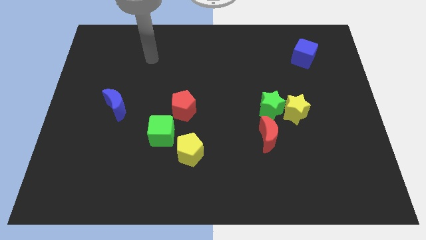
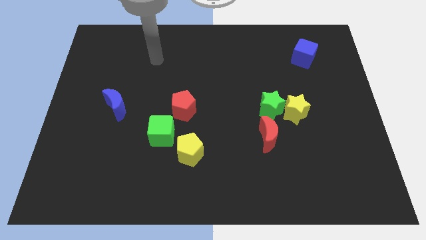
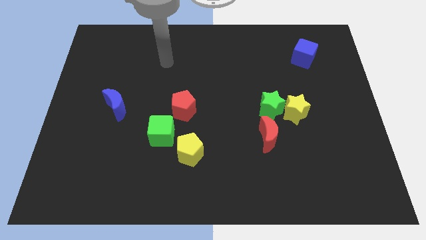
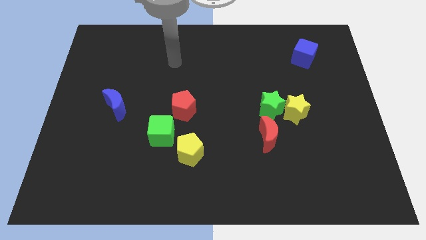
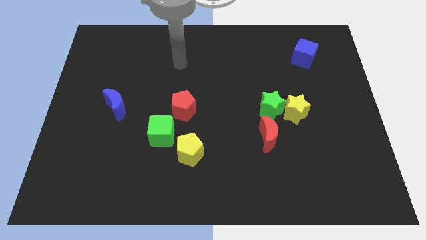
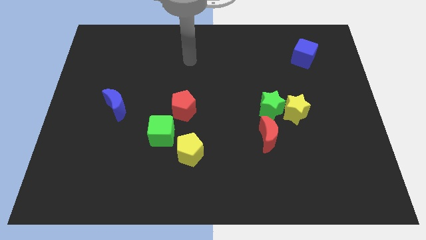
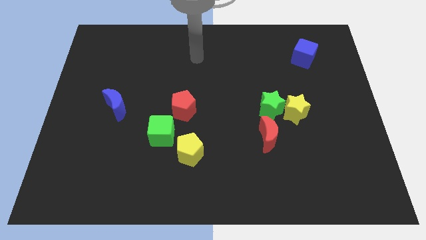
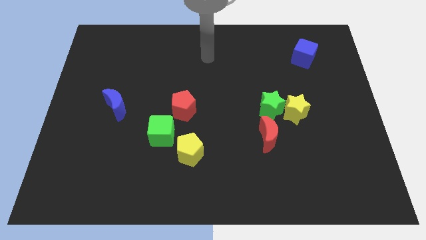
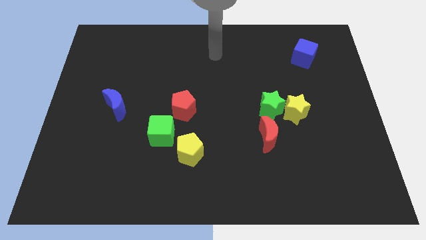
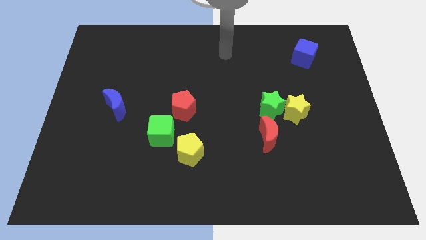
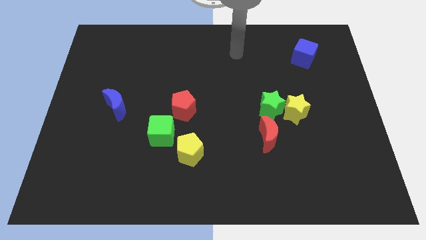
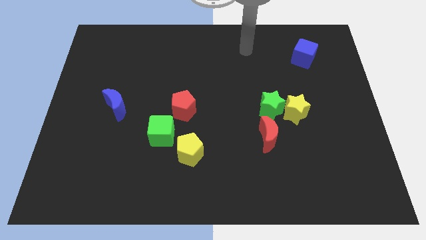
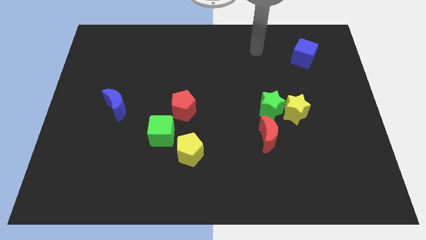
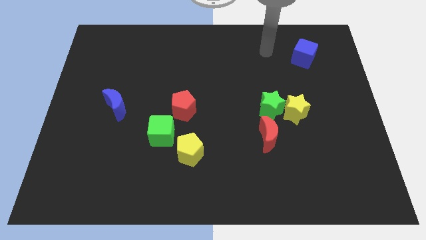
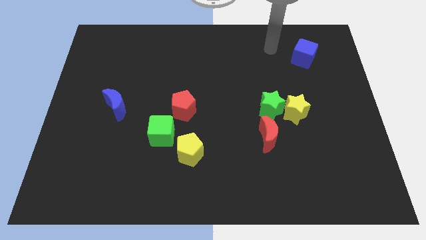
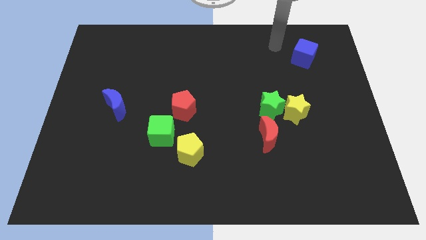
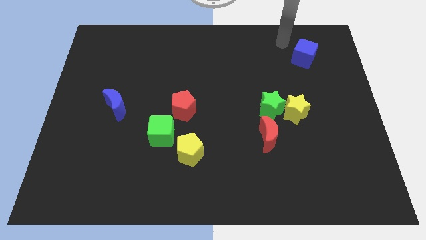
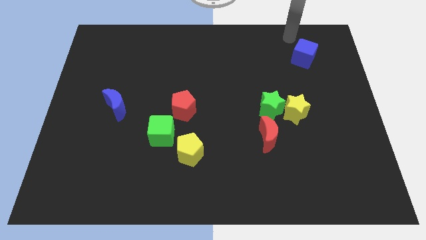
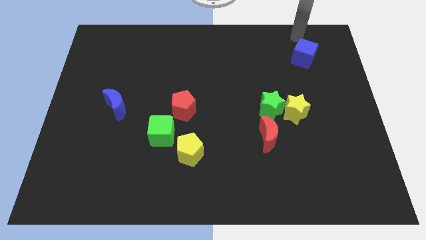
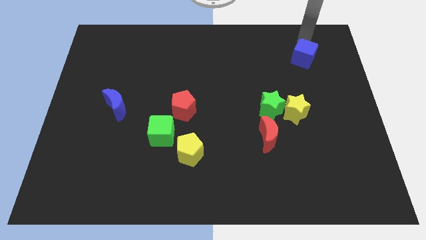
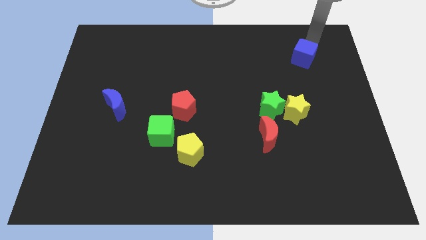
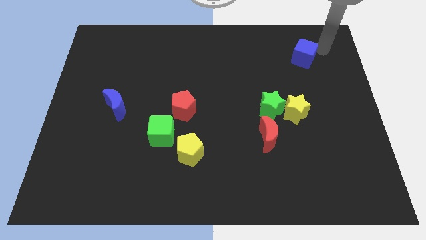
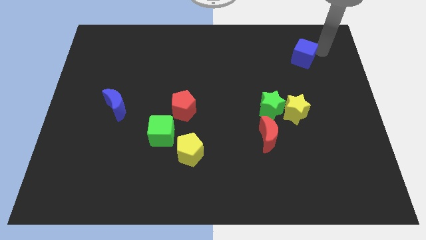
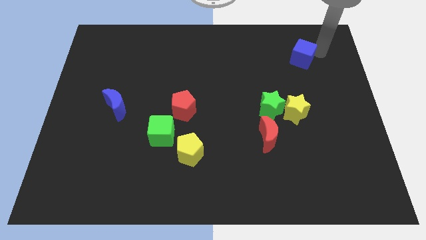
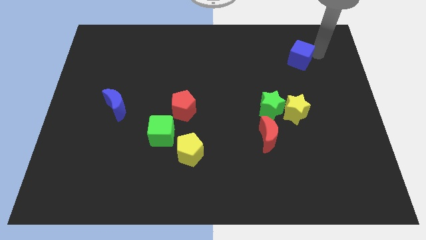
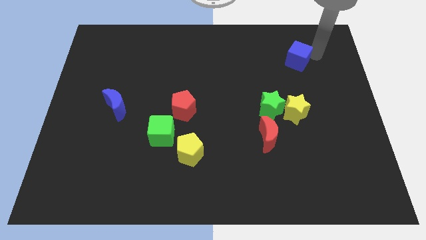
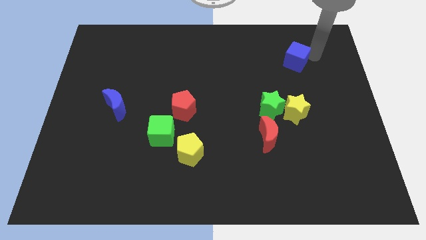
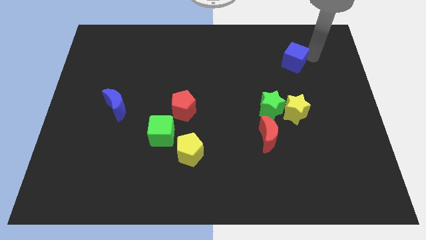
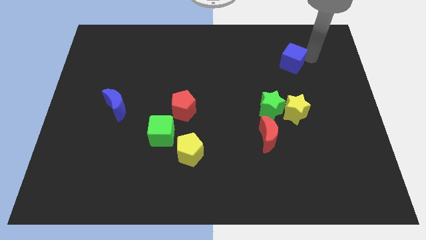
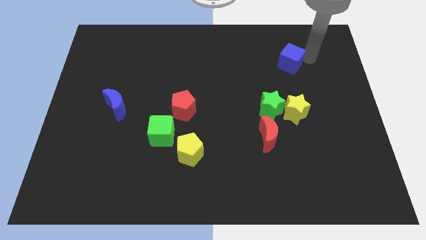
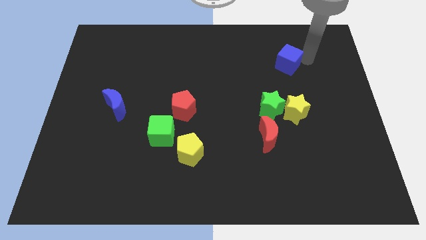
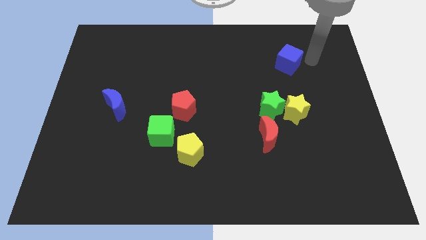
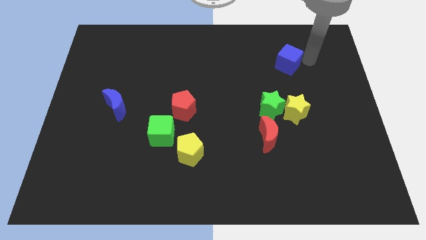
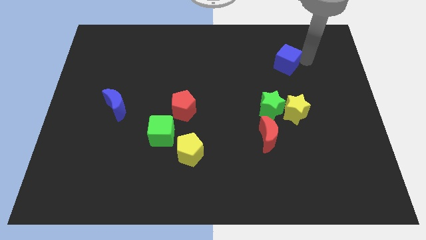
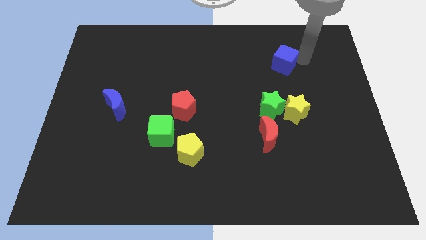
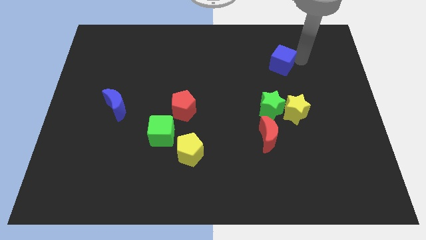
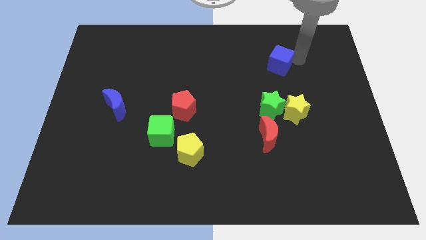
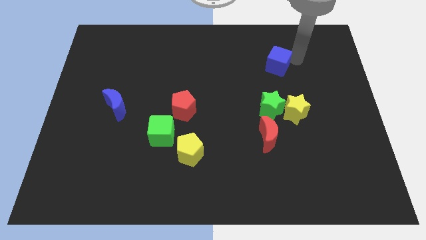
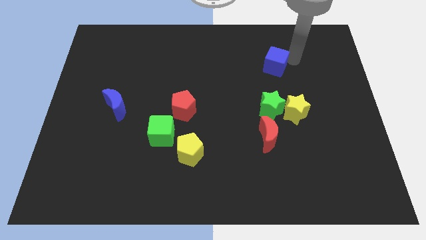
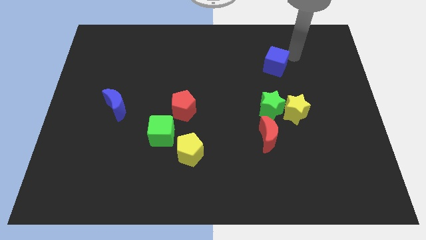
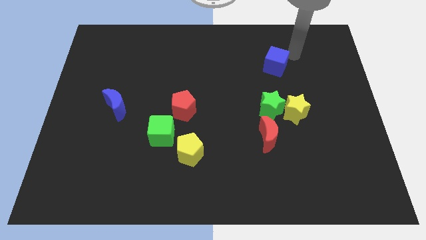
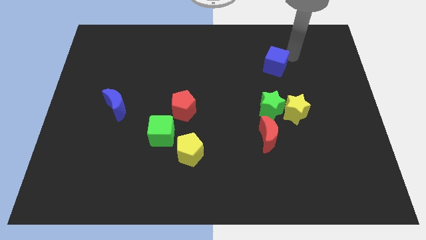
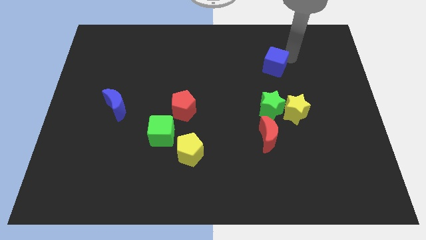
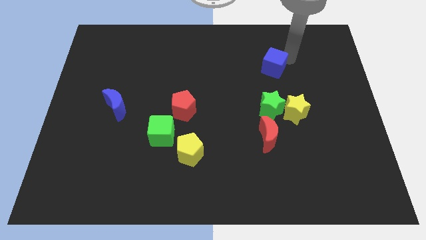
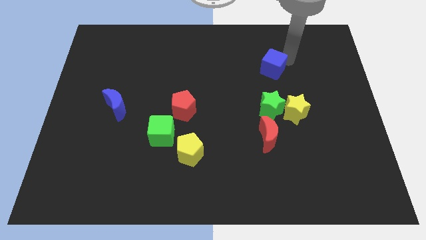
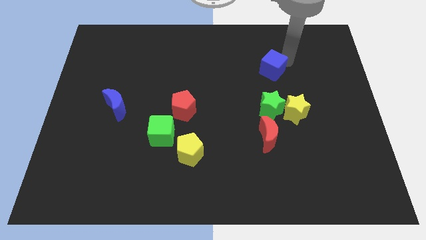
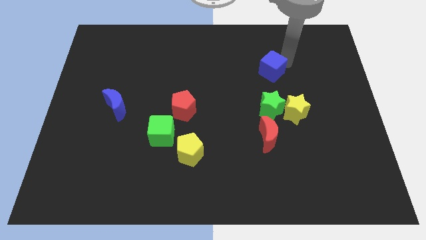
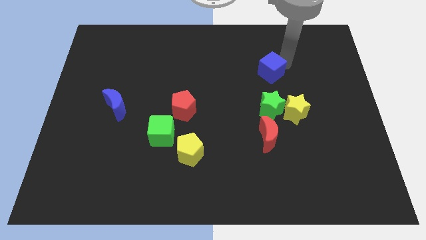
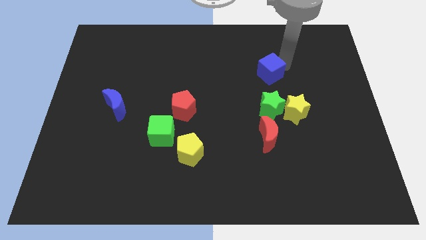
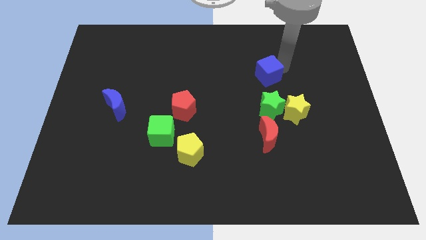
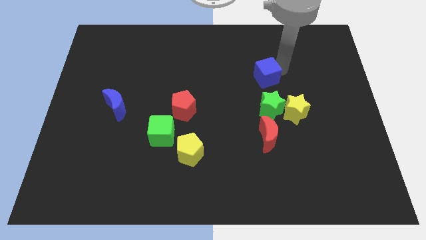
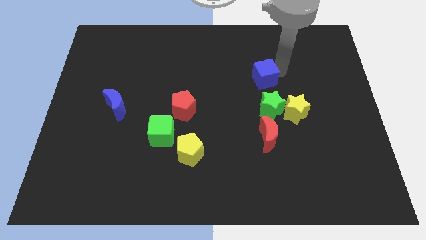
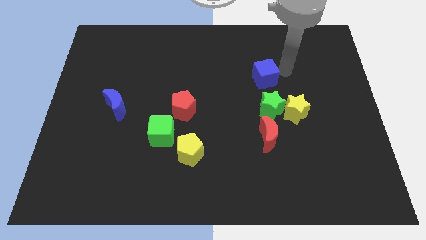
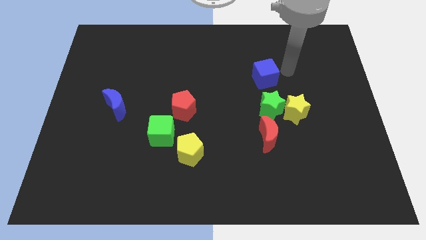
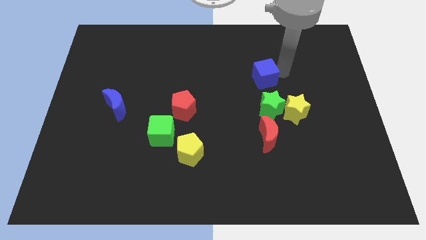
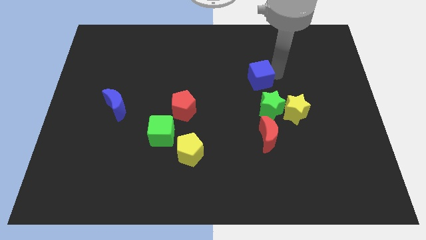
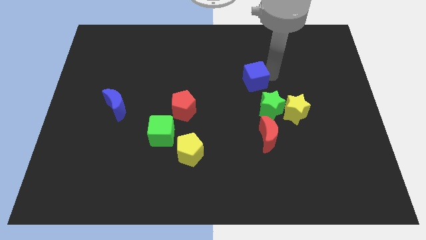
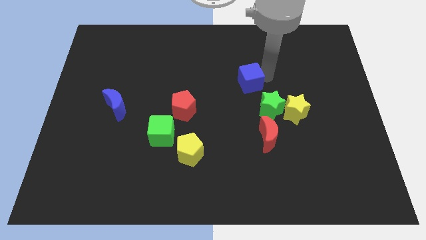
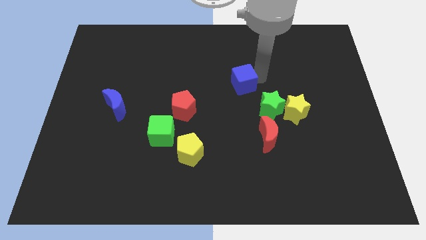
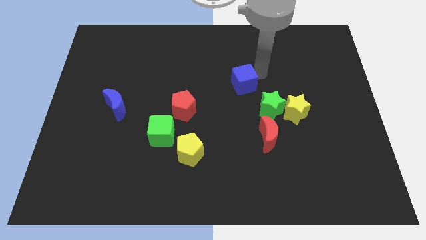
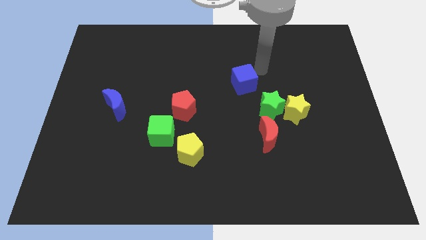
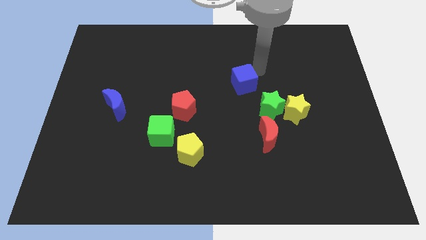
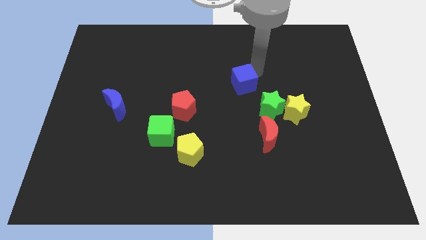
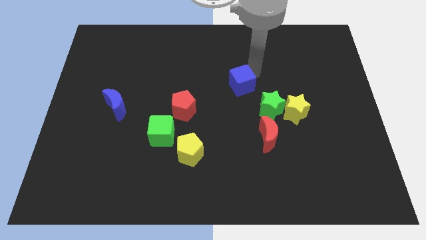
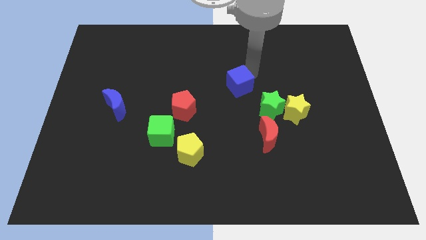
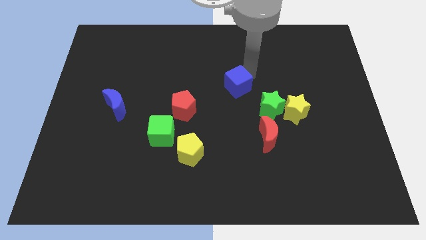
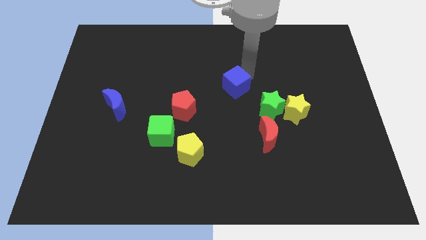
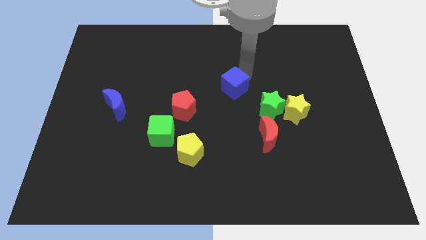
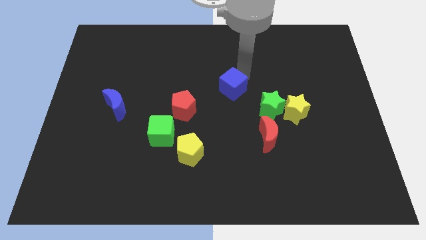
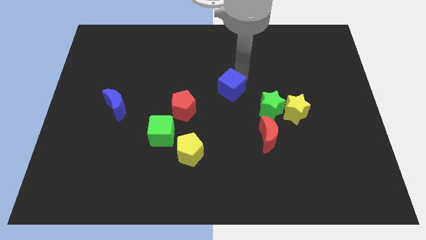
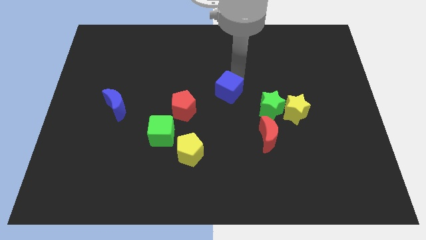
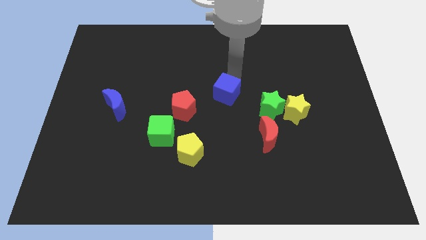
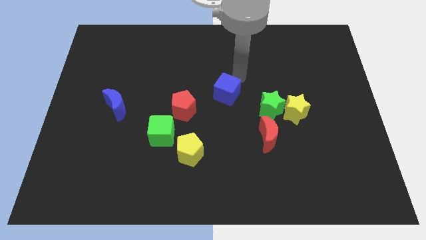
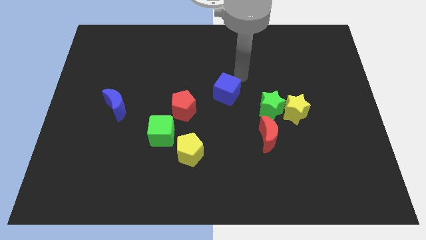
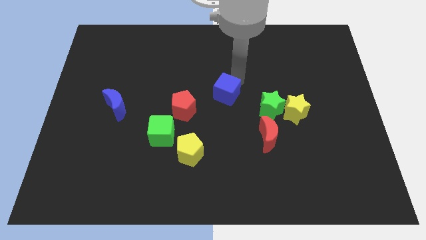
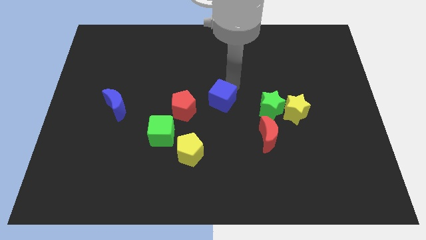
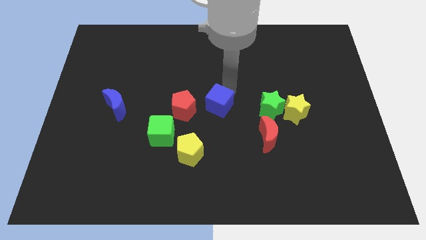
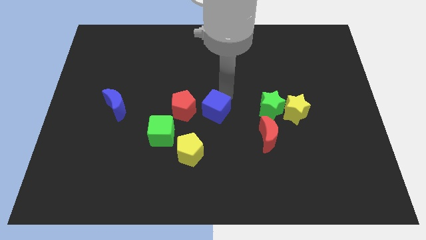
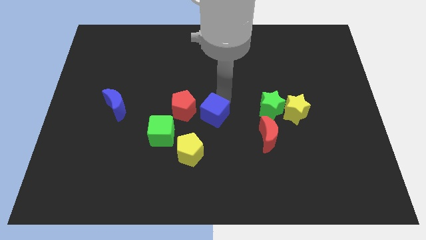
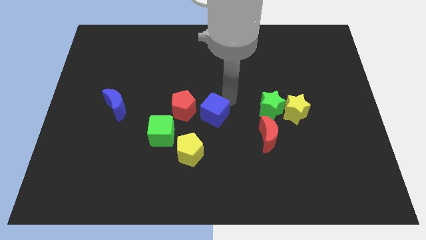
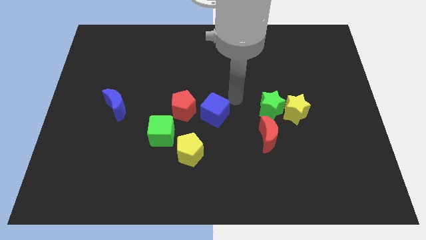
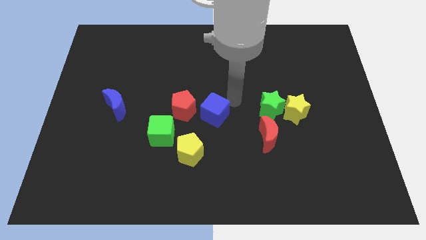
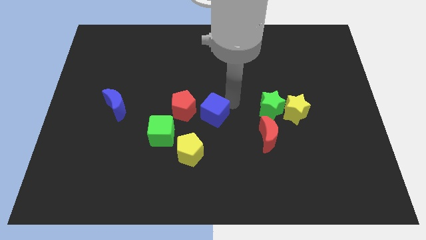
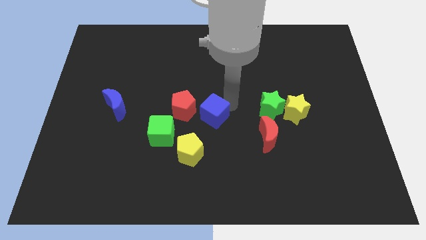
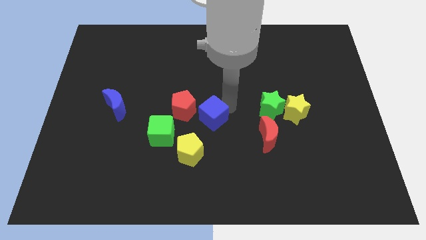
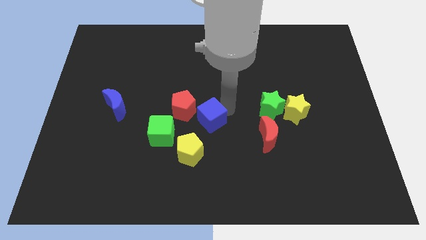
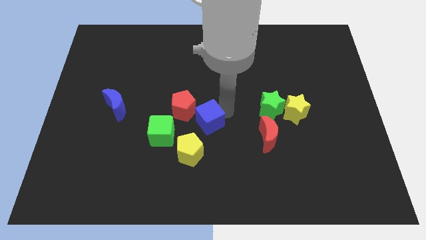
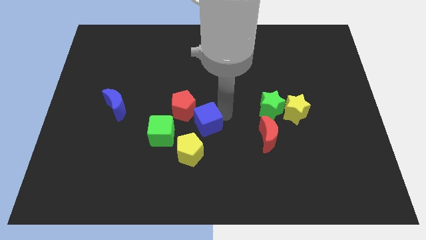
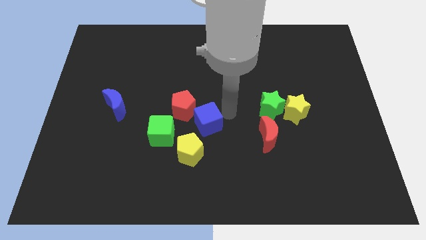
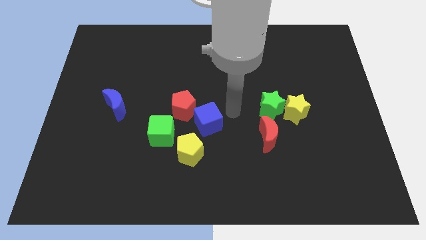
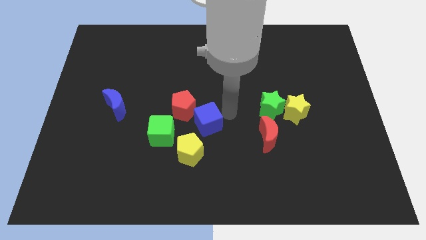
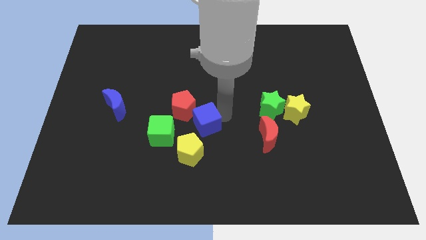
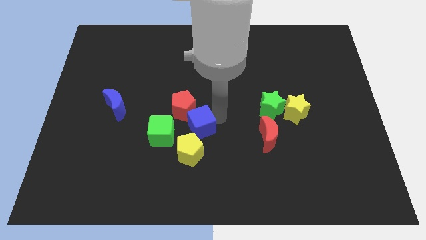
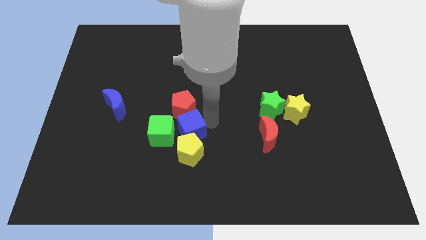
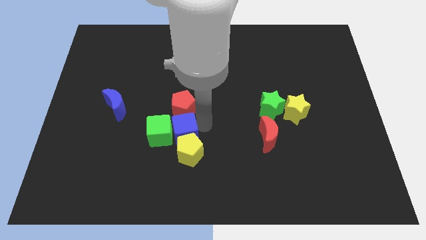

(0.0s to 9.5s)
push the blue cube next to the green cube
